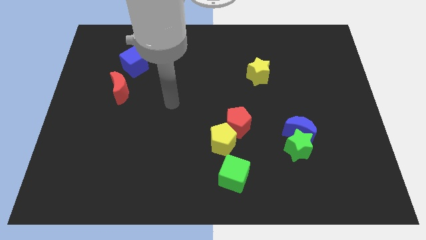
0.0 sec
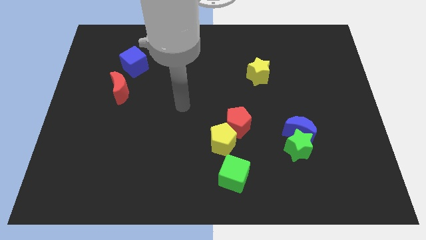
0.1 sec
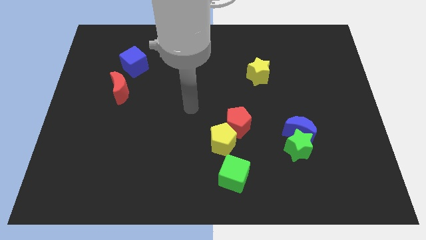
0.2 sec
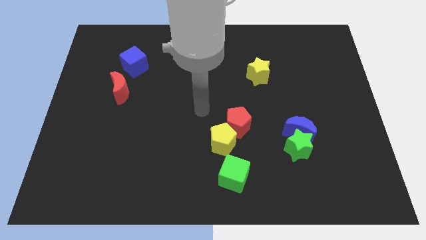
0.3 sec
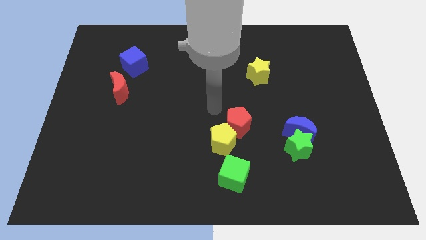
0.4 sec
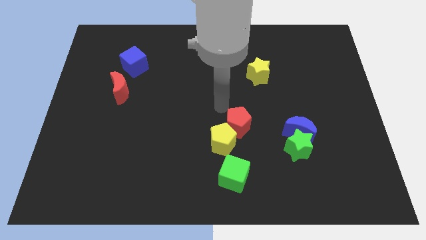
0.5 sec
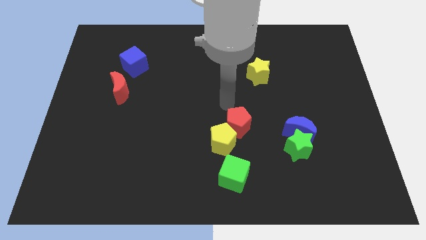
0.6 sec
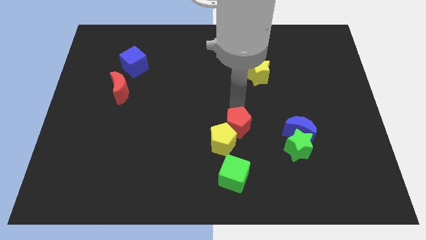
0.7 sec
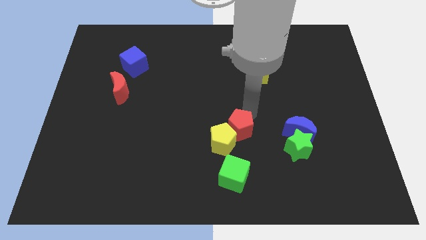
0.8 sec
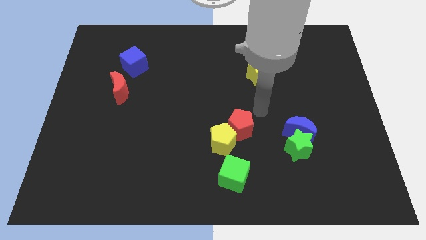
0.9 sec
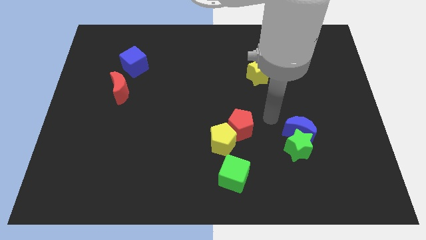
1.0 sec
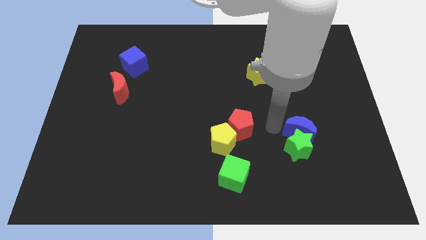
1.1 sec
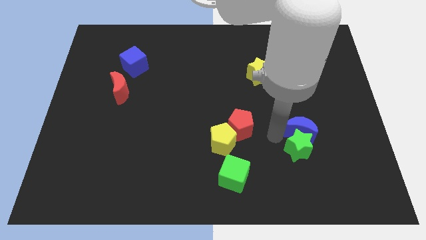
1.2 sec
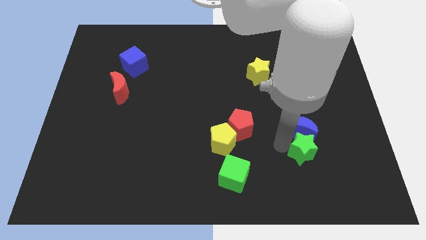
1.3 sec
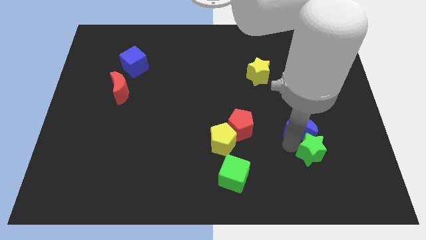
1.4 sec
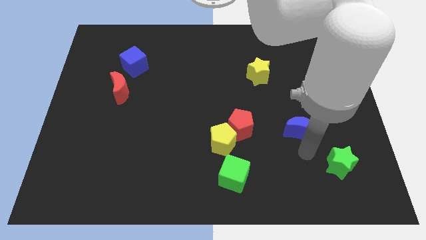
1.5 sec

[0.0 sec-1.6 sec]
move the blue moon away from the green star

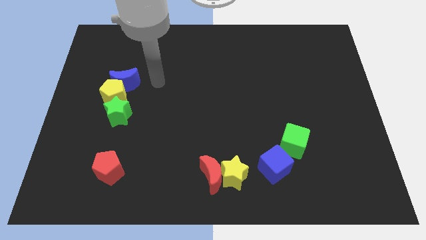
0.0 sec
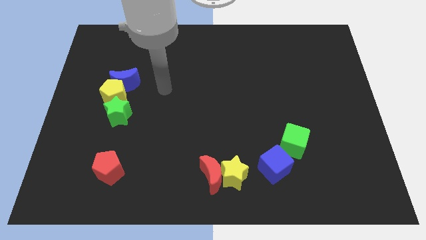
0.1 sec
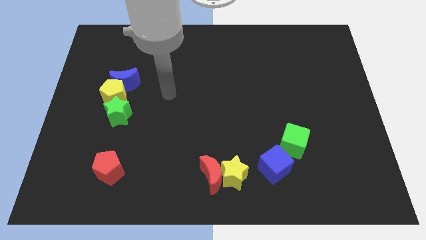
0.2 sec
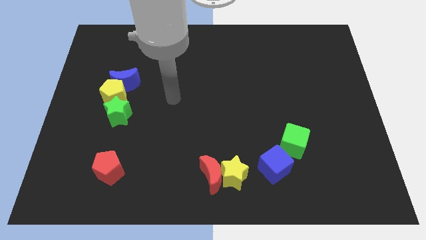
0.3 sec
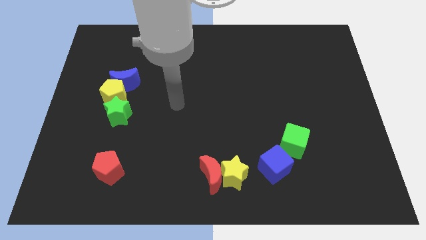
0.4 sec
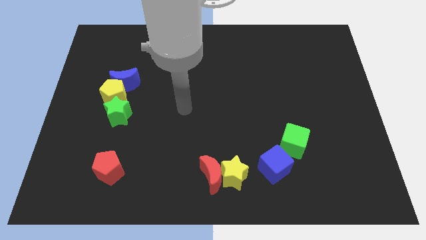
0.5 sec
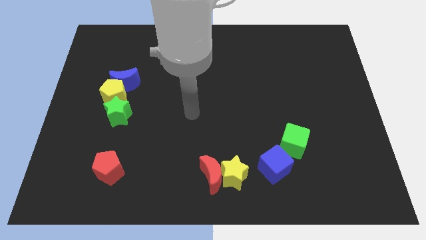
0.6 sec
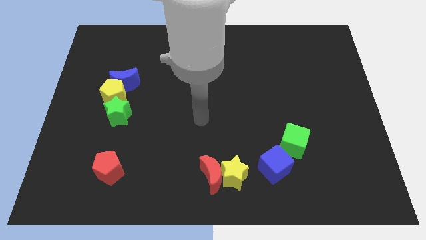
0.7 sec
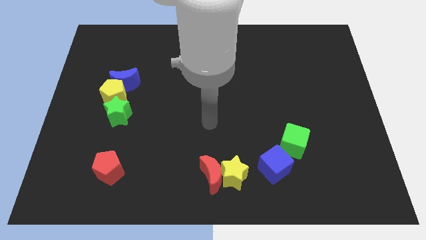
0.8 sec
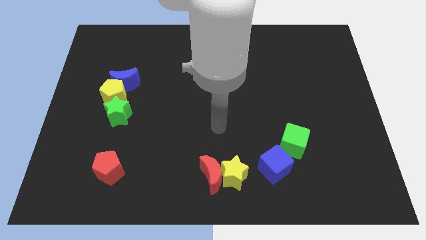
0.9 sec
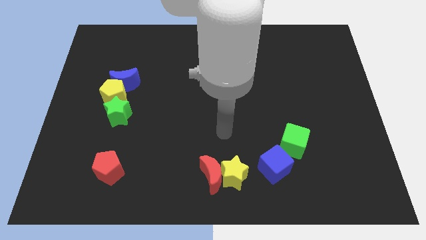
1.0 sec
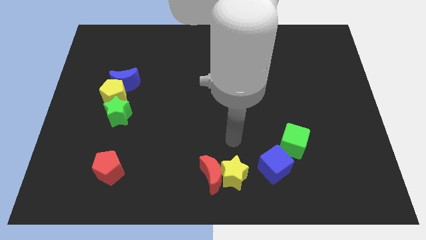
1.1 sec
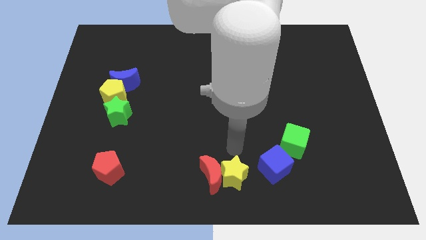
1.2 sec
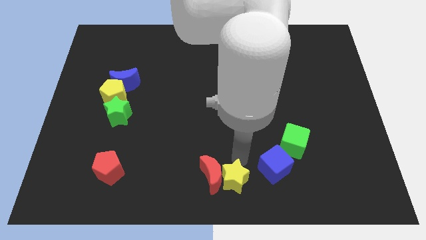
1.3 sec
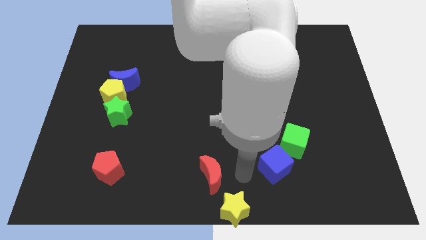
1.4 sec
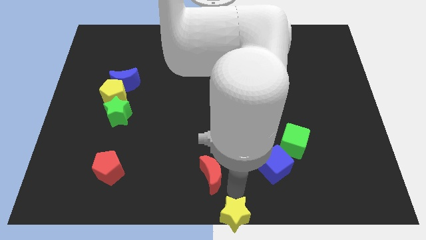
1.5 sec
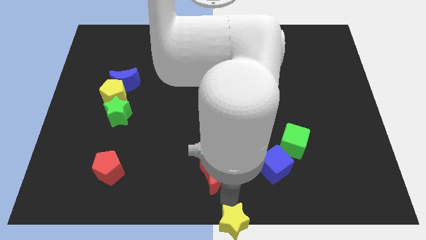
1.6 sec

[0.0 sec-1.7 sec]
move the red moon away from the yellow star

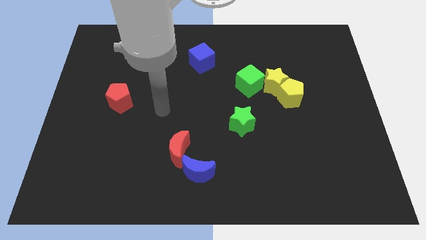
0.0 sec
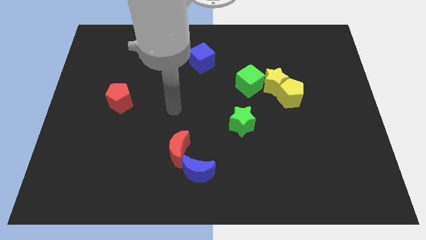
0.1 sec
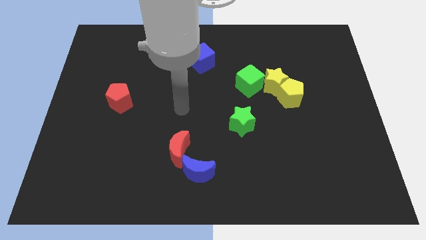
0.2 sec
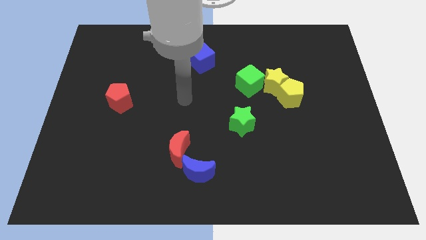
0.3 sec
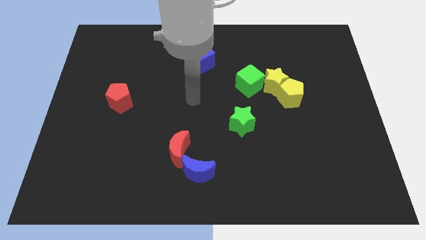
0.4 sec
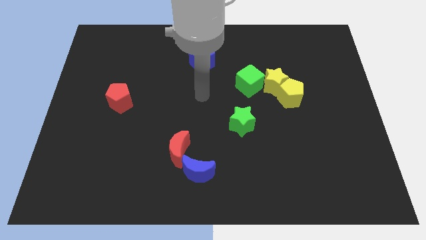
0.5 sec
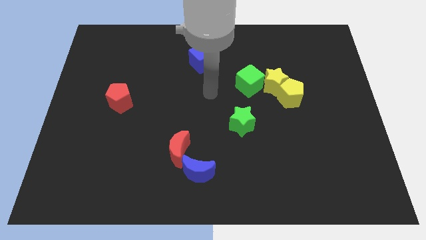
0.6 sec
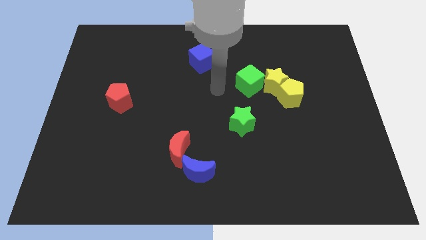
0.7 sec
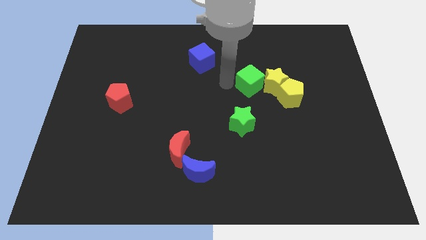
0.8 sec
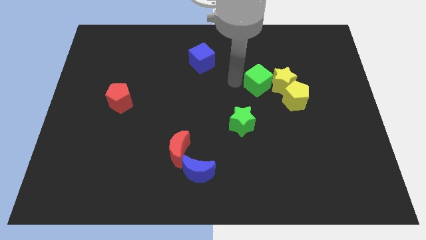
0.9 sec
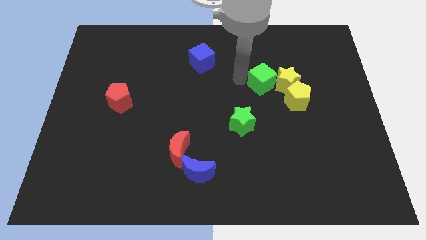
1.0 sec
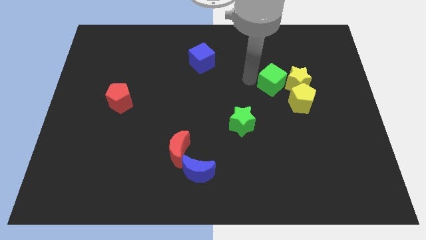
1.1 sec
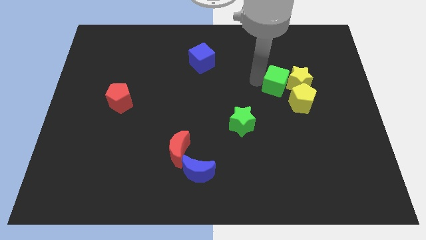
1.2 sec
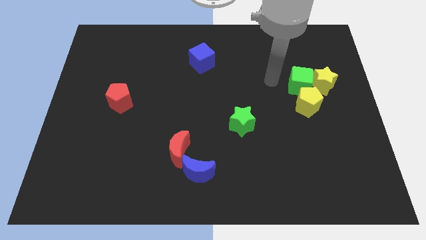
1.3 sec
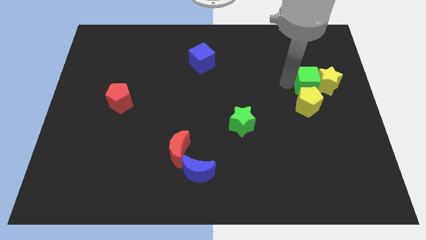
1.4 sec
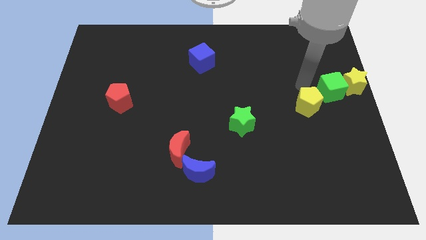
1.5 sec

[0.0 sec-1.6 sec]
pull the yellow pentagon apart from the yellow star

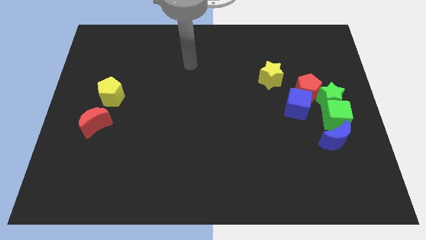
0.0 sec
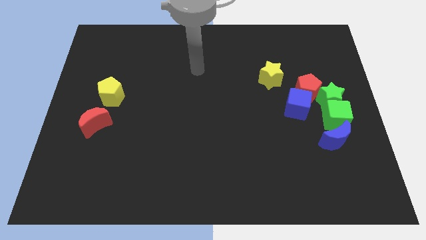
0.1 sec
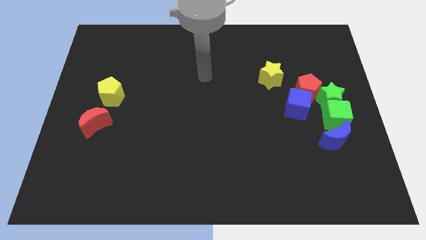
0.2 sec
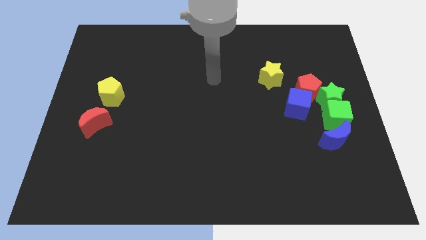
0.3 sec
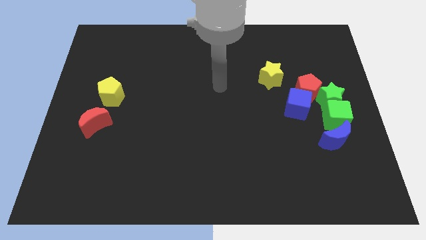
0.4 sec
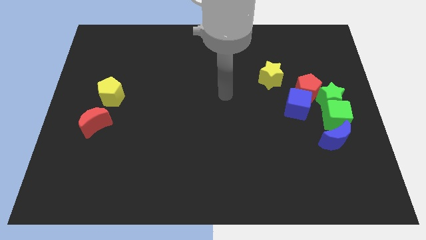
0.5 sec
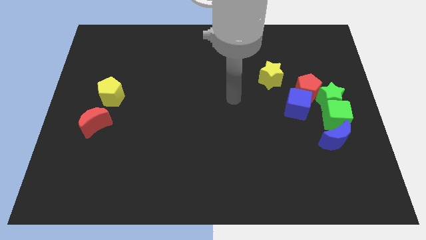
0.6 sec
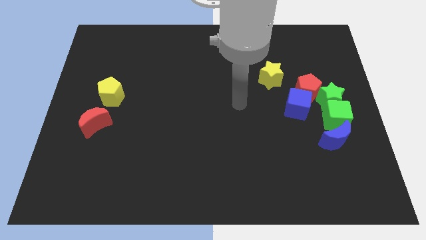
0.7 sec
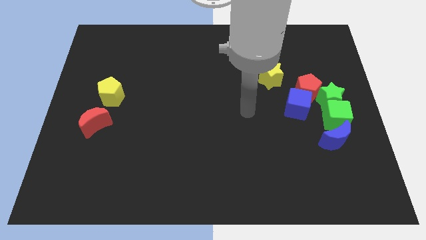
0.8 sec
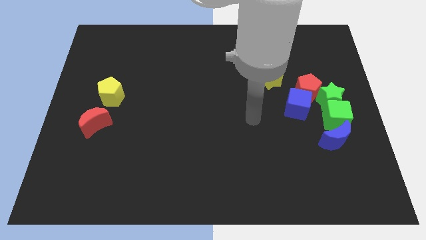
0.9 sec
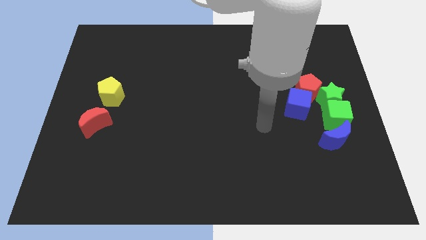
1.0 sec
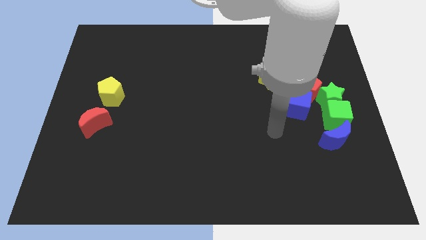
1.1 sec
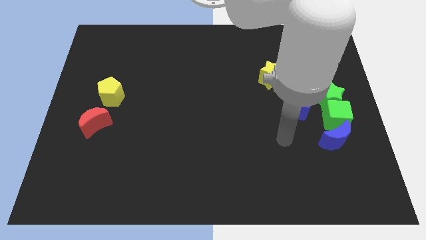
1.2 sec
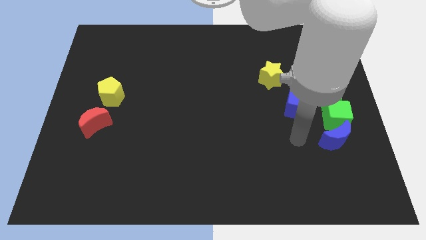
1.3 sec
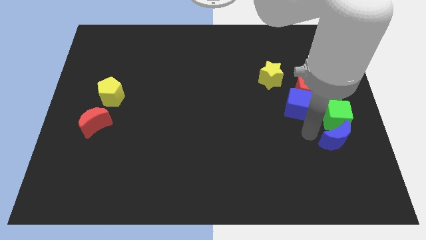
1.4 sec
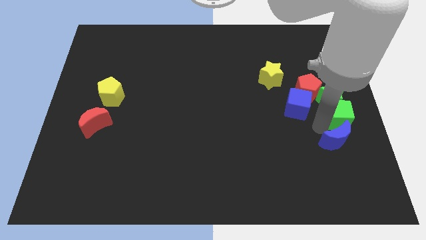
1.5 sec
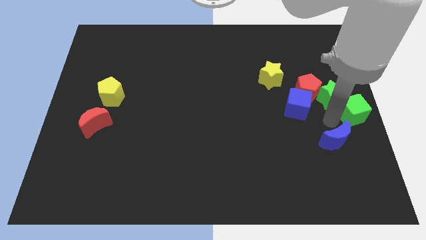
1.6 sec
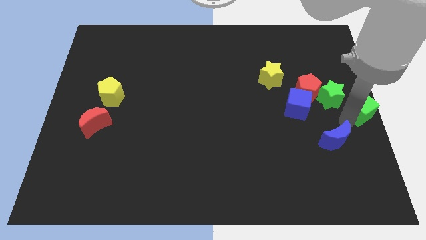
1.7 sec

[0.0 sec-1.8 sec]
move the blue moon away from the green cube

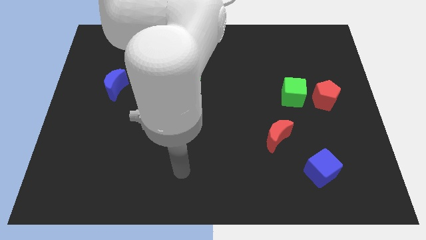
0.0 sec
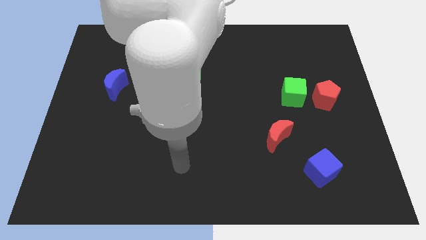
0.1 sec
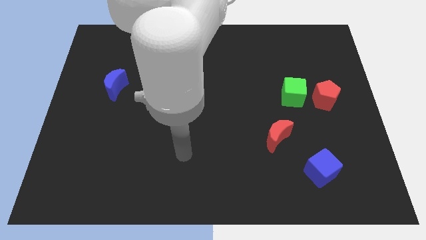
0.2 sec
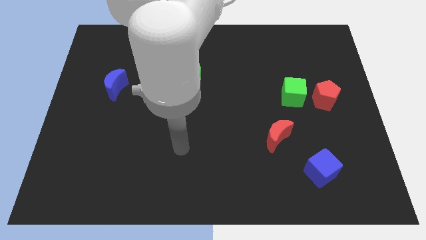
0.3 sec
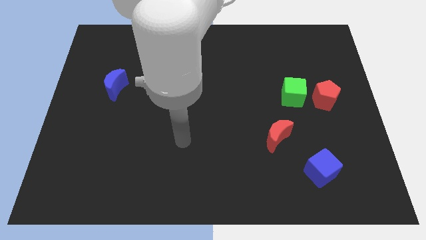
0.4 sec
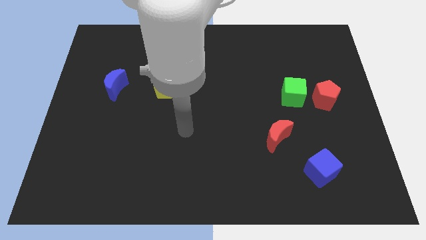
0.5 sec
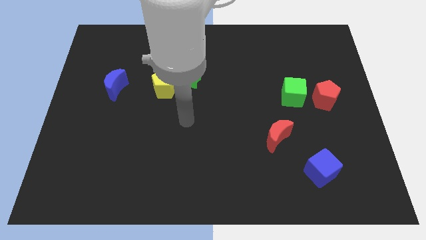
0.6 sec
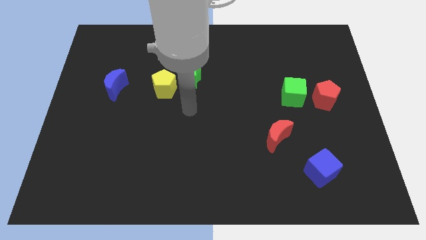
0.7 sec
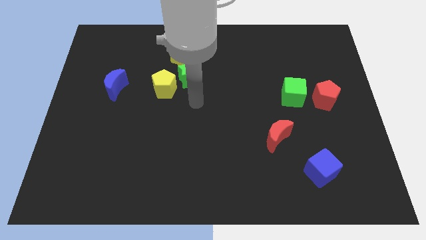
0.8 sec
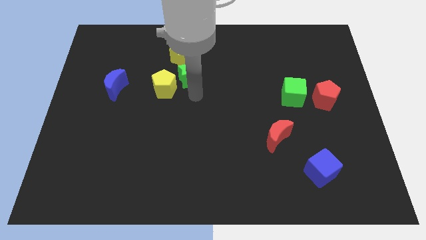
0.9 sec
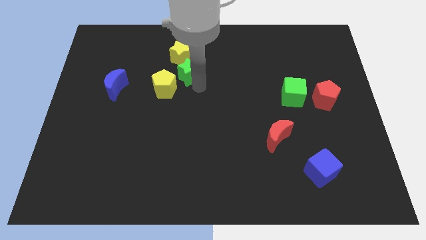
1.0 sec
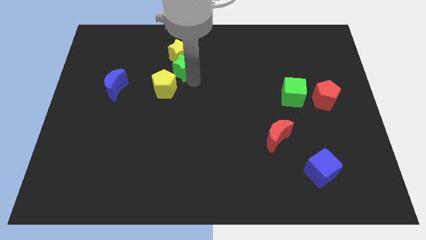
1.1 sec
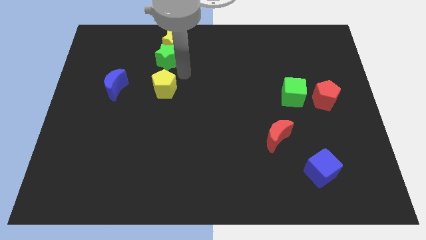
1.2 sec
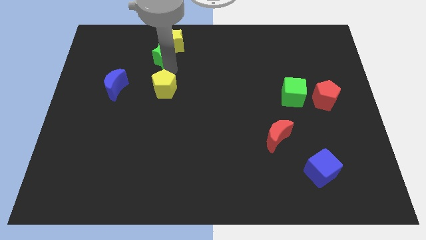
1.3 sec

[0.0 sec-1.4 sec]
pull the yellow pentagon apart from the green star

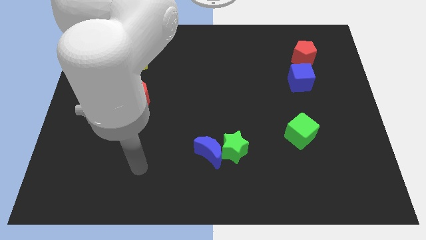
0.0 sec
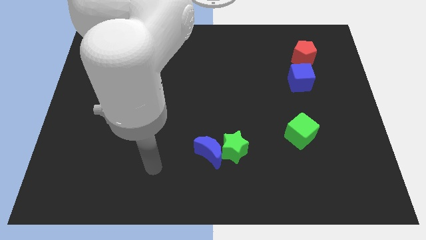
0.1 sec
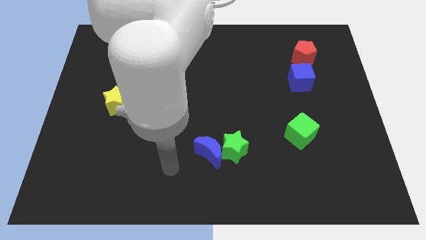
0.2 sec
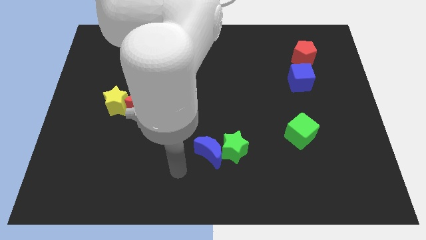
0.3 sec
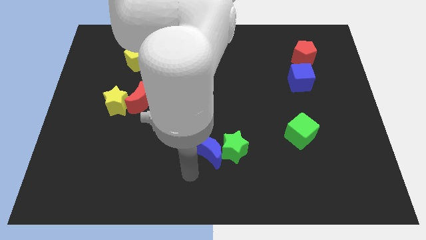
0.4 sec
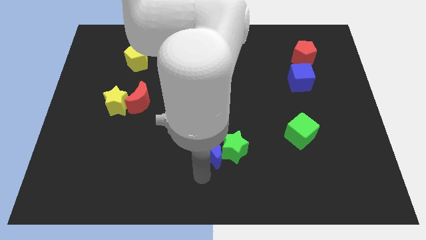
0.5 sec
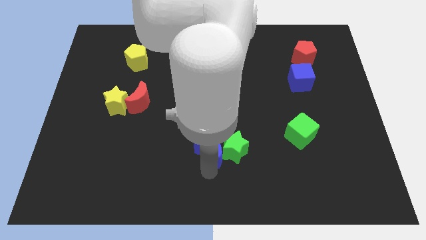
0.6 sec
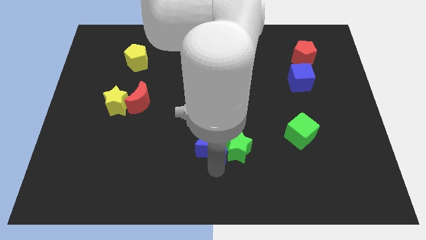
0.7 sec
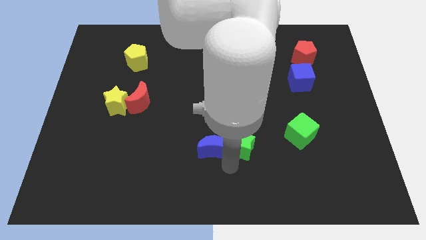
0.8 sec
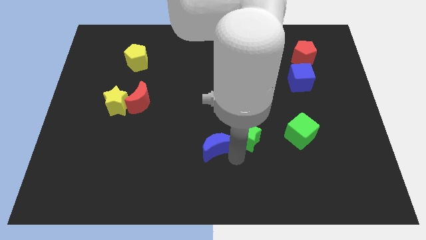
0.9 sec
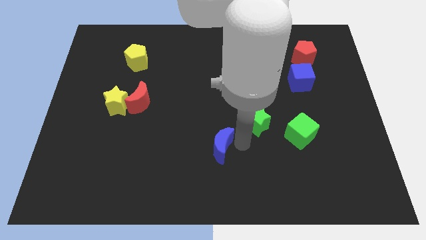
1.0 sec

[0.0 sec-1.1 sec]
pull the blue moon apart from the green star

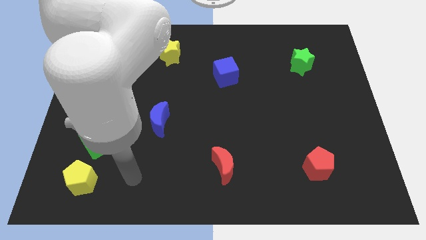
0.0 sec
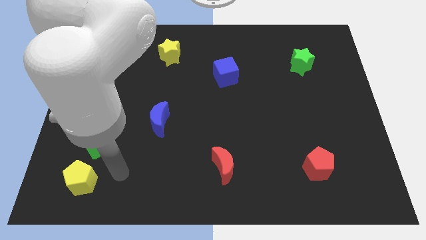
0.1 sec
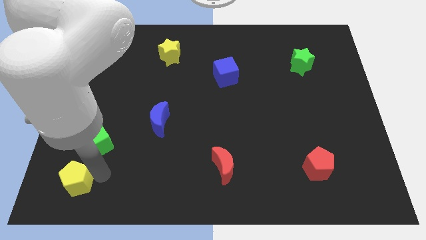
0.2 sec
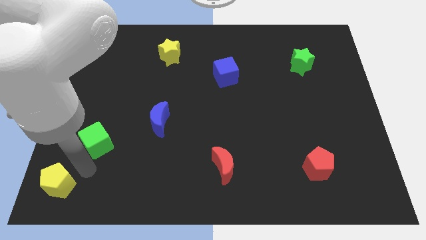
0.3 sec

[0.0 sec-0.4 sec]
pull the green cube apart from the yellow pentagon
